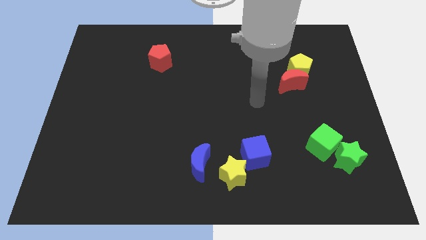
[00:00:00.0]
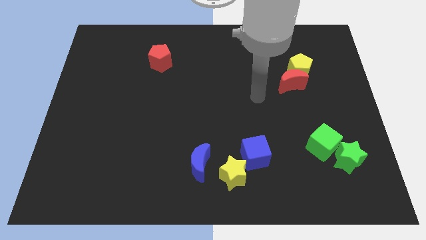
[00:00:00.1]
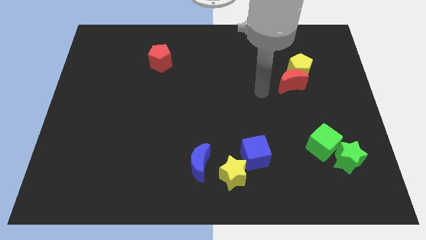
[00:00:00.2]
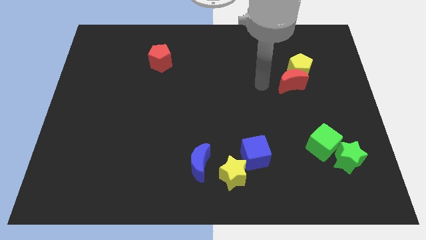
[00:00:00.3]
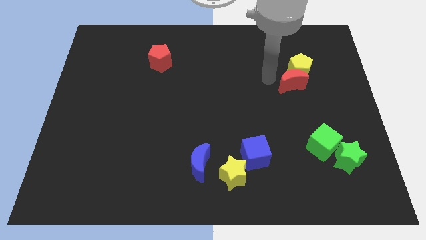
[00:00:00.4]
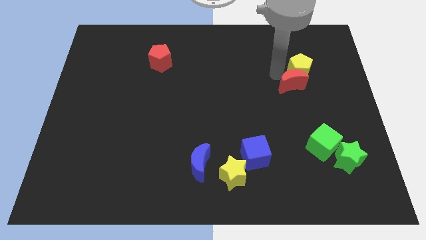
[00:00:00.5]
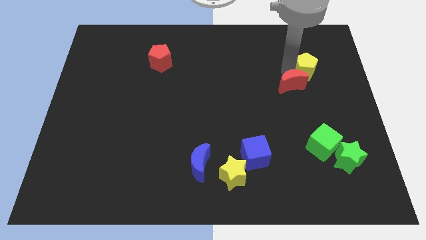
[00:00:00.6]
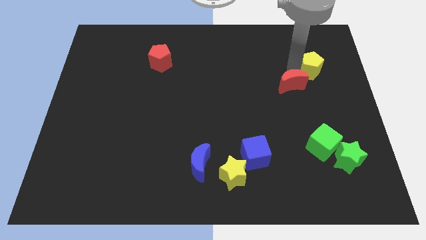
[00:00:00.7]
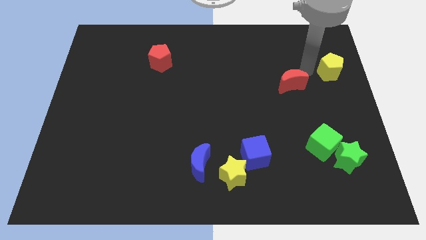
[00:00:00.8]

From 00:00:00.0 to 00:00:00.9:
separate the red moon from the yellow pentagon

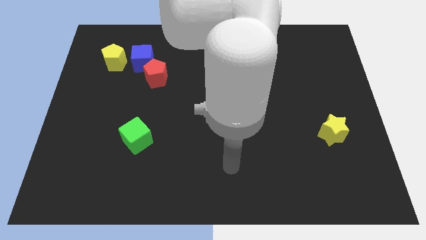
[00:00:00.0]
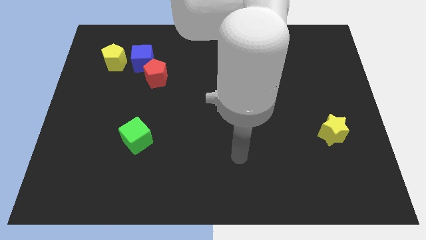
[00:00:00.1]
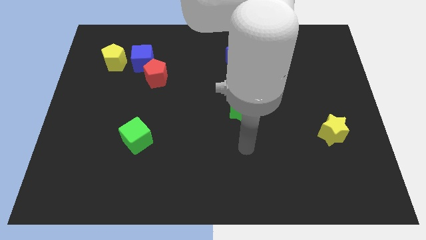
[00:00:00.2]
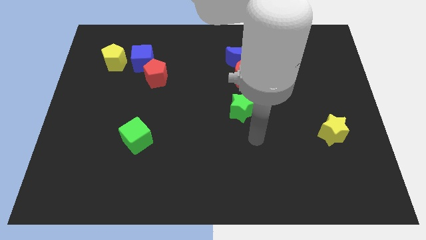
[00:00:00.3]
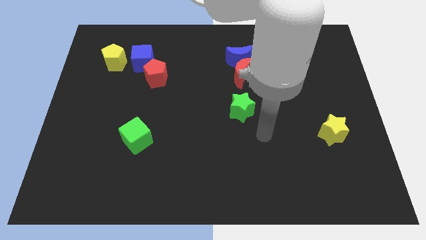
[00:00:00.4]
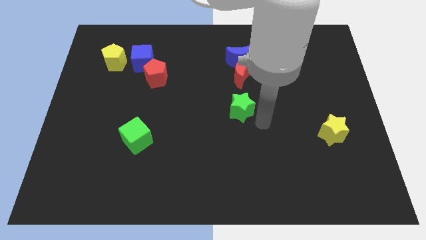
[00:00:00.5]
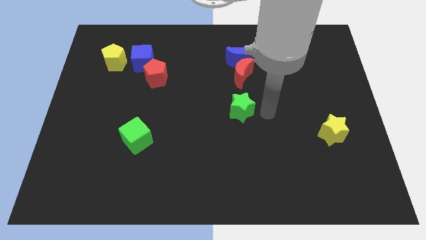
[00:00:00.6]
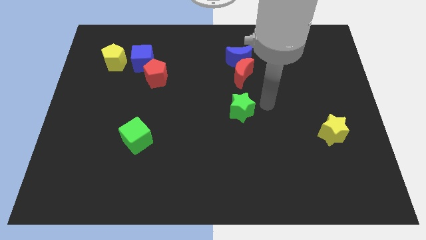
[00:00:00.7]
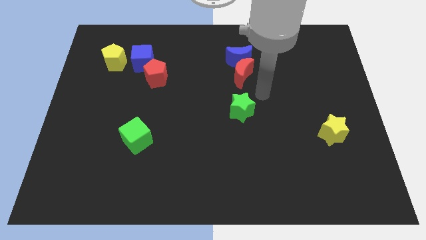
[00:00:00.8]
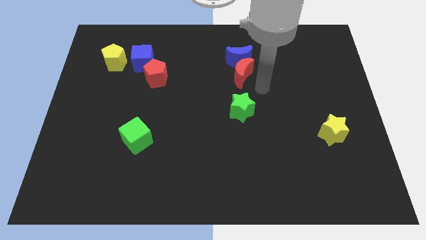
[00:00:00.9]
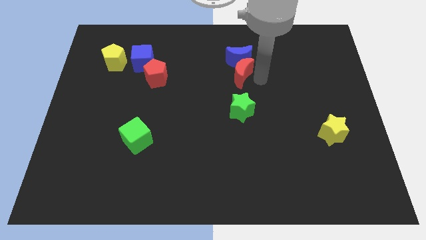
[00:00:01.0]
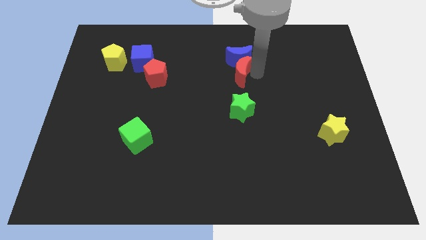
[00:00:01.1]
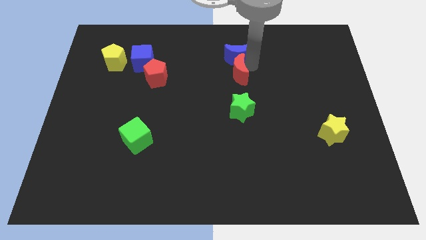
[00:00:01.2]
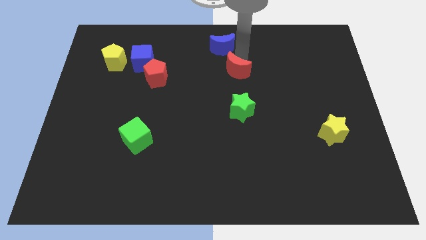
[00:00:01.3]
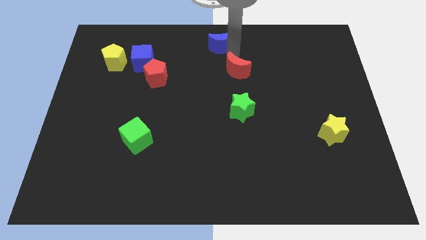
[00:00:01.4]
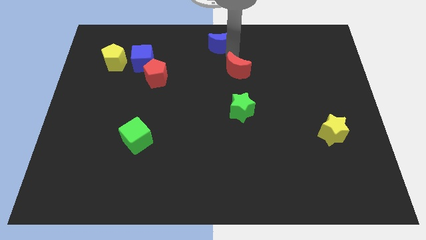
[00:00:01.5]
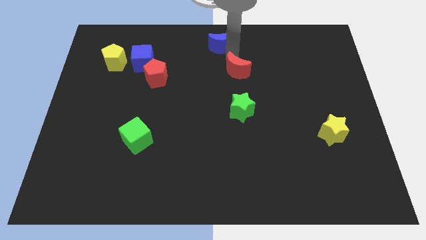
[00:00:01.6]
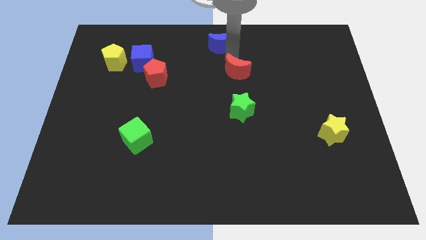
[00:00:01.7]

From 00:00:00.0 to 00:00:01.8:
separate the red moon from the blue moon

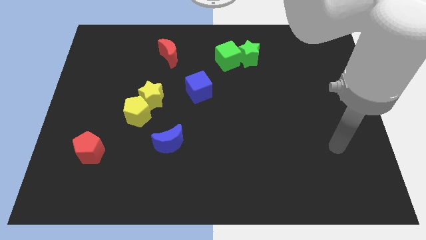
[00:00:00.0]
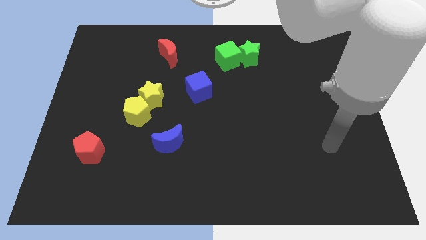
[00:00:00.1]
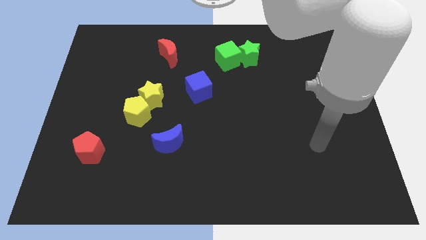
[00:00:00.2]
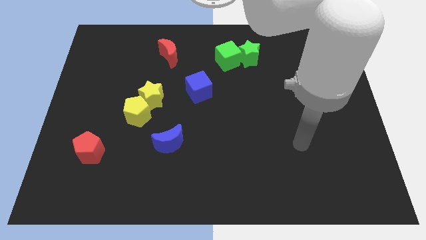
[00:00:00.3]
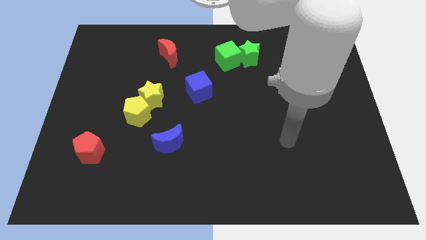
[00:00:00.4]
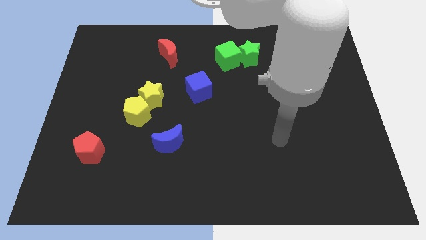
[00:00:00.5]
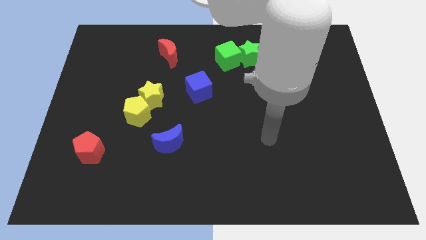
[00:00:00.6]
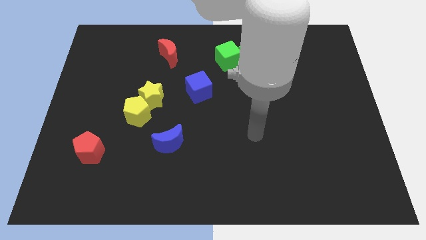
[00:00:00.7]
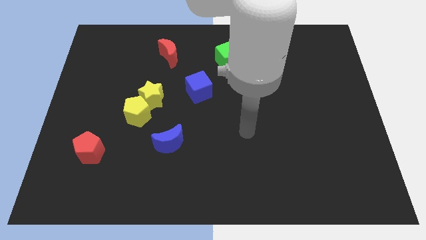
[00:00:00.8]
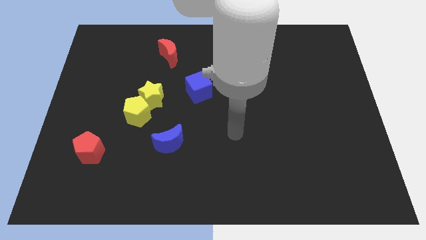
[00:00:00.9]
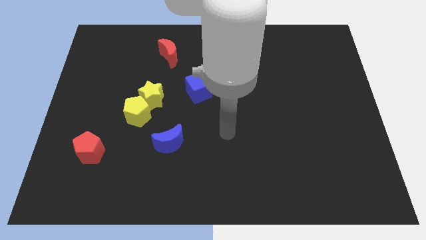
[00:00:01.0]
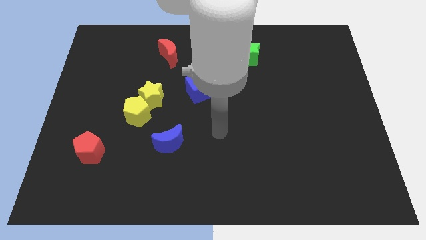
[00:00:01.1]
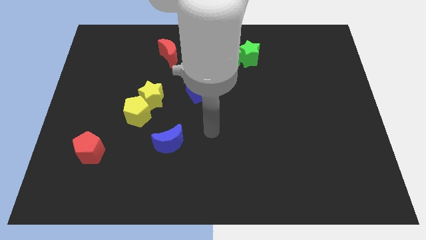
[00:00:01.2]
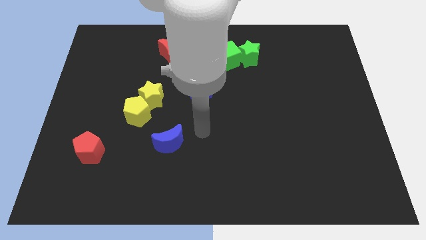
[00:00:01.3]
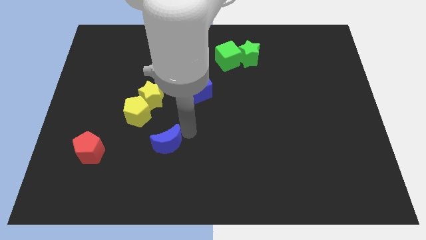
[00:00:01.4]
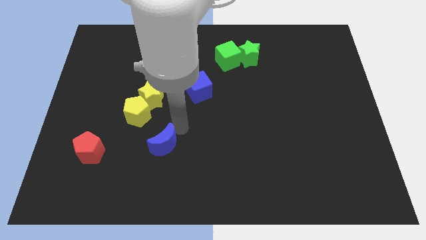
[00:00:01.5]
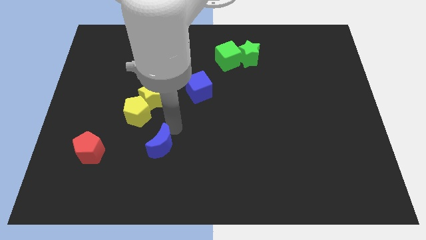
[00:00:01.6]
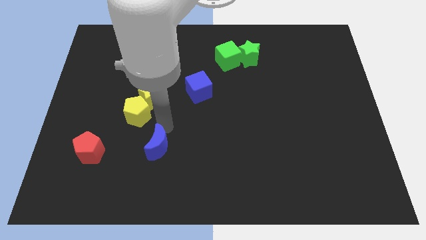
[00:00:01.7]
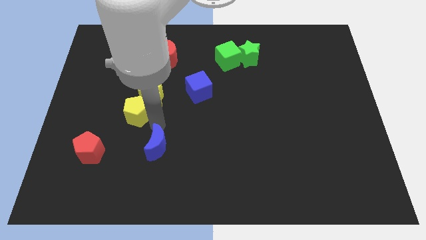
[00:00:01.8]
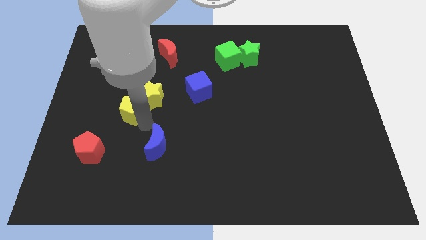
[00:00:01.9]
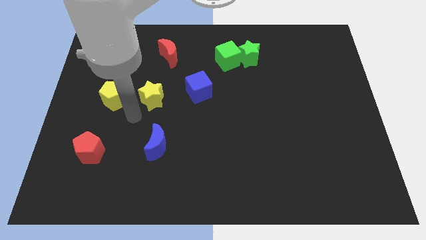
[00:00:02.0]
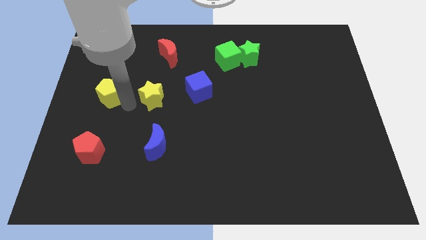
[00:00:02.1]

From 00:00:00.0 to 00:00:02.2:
pull the yellow star apart from the yellow pentagon

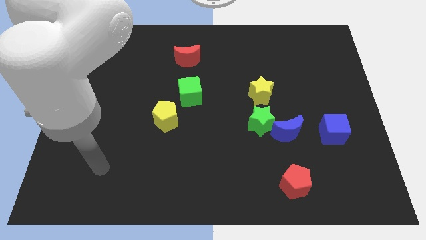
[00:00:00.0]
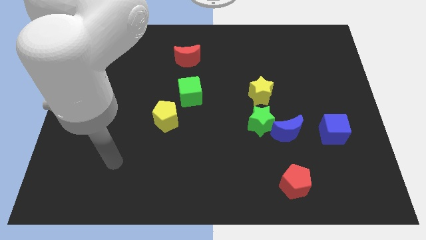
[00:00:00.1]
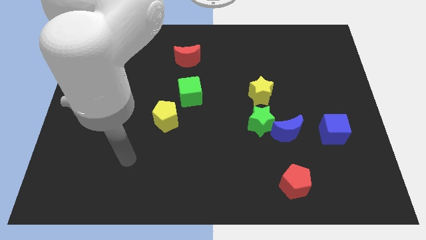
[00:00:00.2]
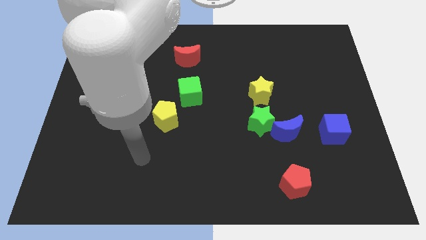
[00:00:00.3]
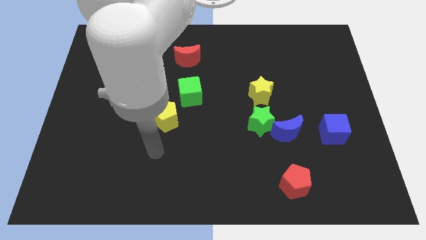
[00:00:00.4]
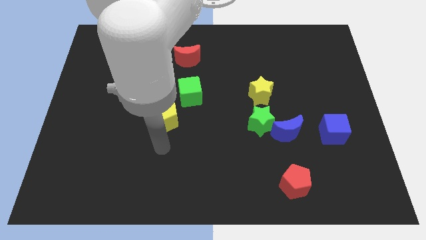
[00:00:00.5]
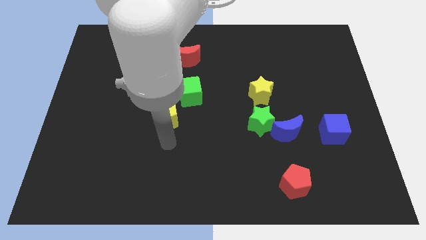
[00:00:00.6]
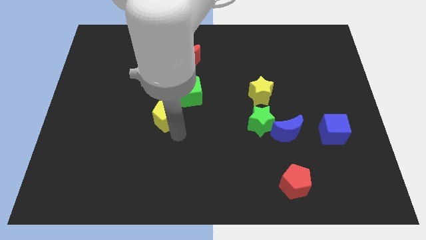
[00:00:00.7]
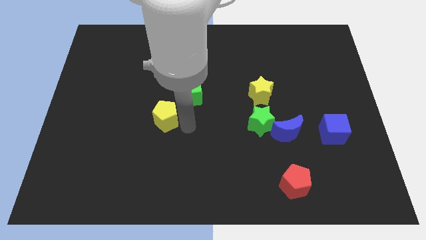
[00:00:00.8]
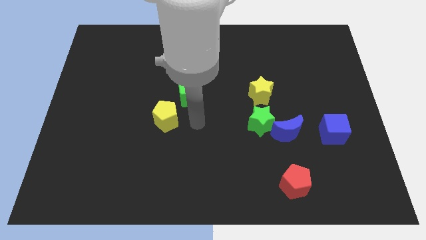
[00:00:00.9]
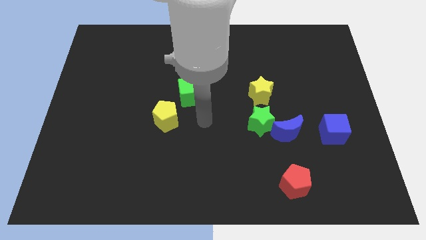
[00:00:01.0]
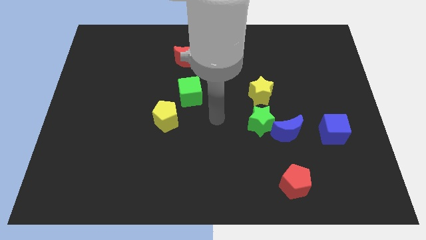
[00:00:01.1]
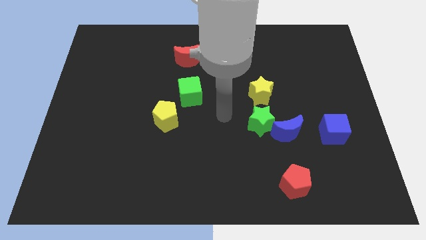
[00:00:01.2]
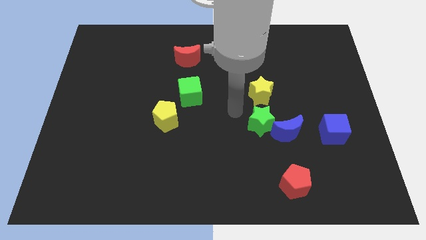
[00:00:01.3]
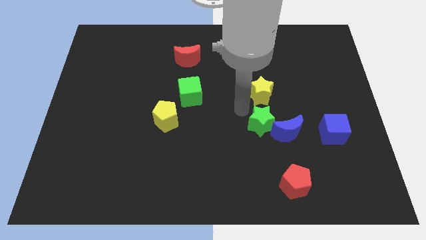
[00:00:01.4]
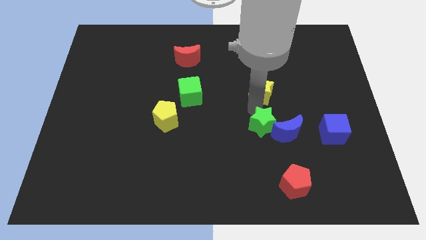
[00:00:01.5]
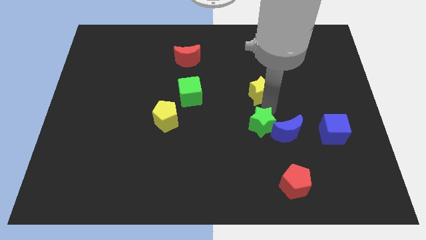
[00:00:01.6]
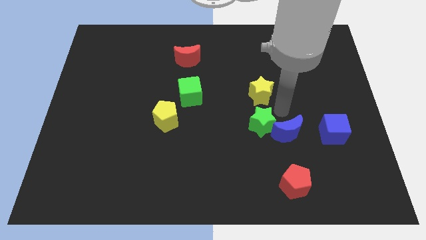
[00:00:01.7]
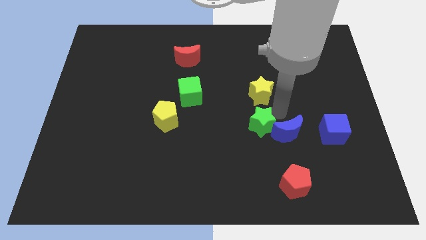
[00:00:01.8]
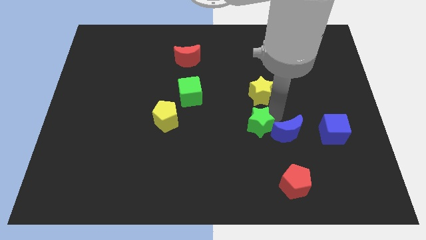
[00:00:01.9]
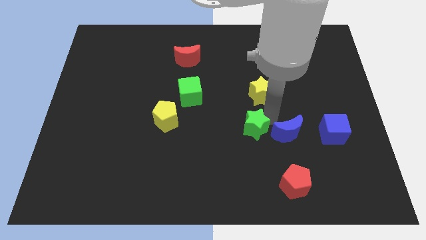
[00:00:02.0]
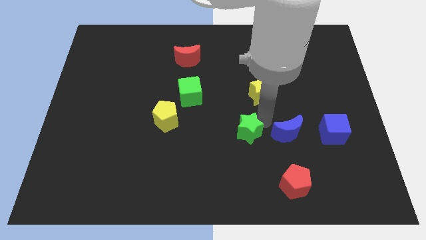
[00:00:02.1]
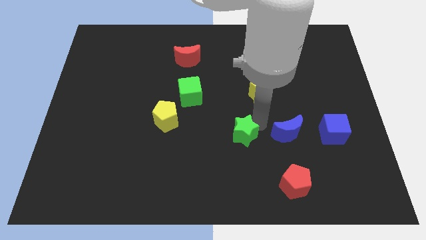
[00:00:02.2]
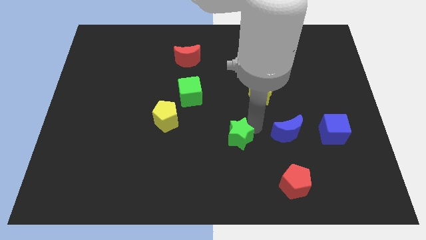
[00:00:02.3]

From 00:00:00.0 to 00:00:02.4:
pull the green star apart from the blue moon and yellow star

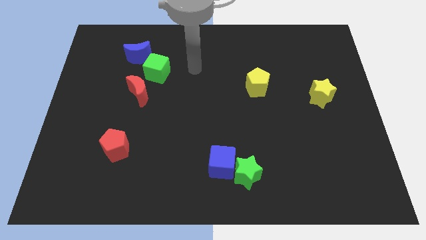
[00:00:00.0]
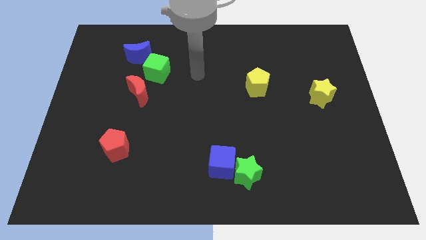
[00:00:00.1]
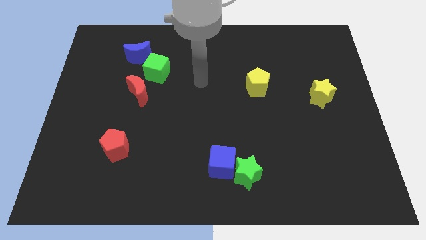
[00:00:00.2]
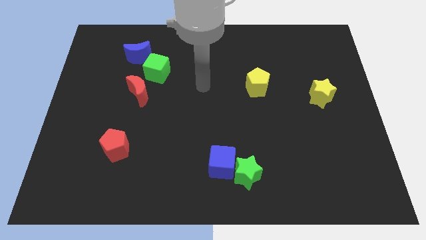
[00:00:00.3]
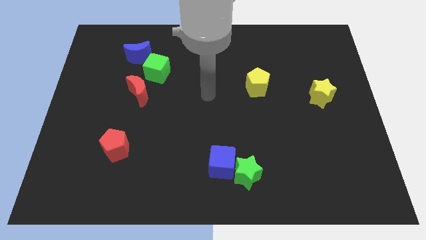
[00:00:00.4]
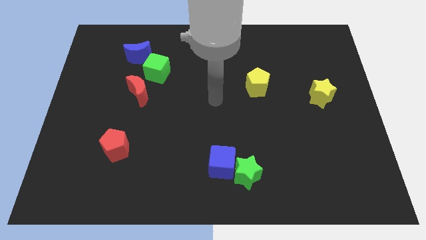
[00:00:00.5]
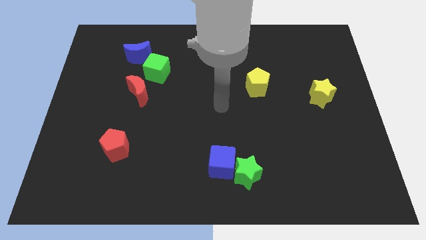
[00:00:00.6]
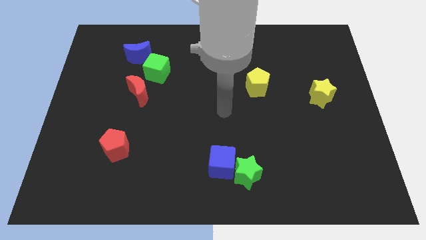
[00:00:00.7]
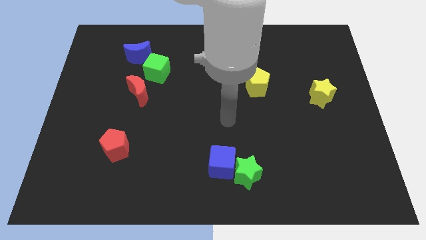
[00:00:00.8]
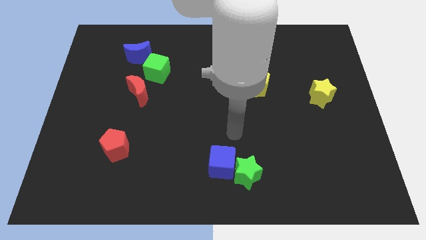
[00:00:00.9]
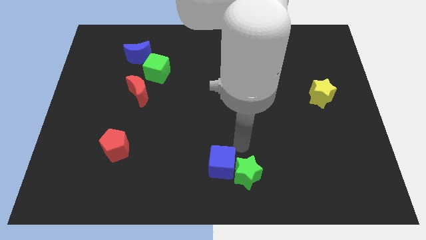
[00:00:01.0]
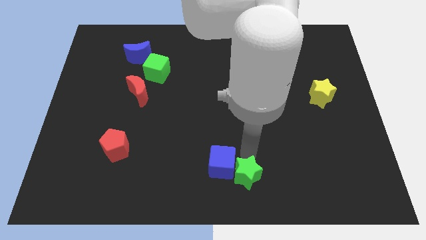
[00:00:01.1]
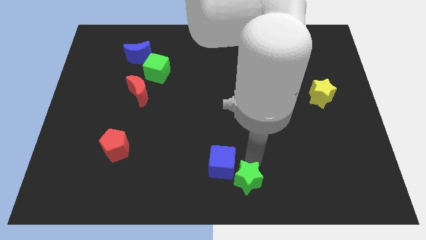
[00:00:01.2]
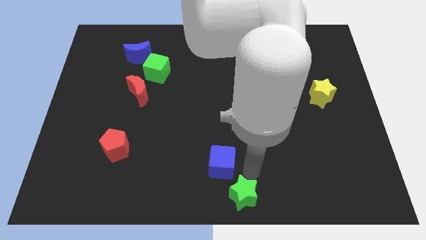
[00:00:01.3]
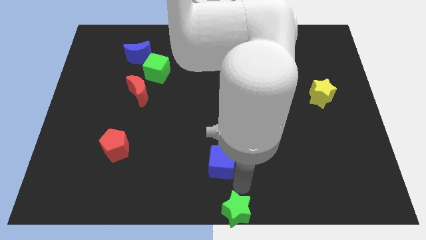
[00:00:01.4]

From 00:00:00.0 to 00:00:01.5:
separate the blue cube from the green star

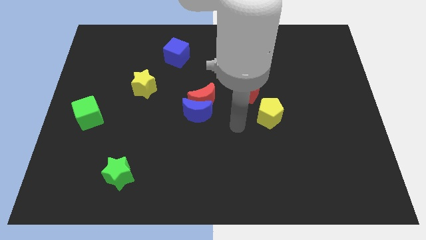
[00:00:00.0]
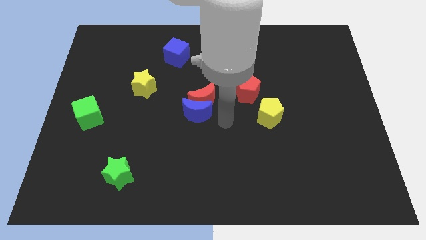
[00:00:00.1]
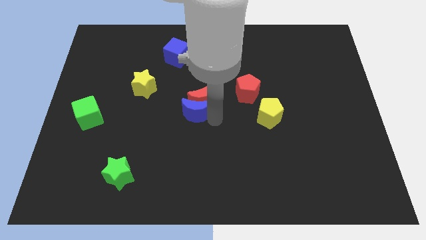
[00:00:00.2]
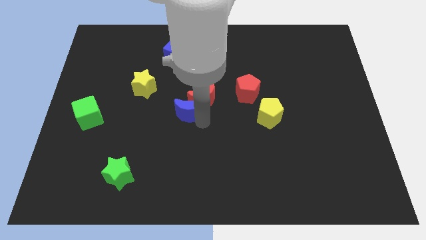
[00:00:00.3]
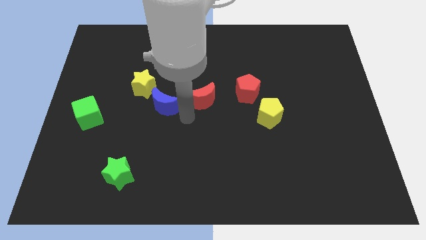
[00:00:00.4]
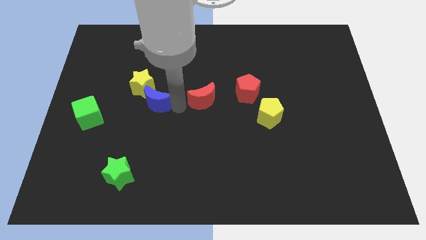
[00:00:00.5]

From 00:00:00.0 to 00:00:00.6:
move the red moon away from the blue moon
